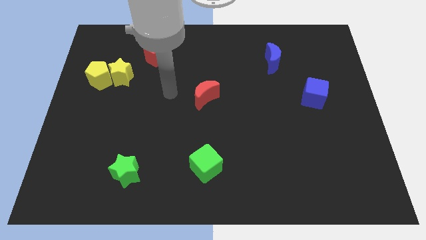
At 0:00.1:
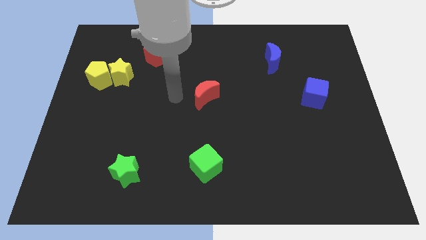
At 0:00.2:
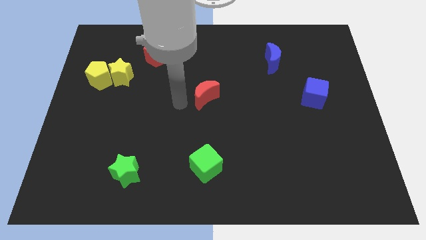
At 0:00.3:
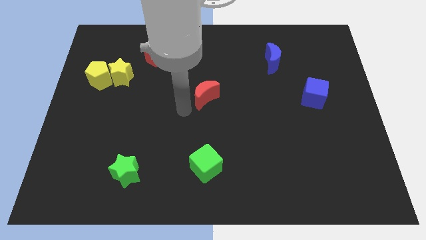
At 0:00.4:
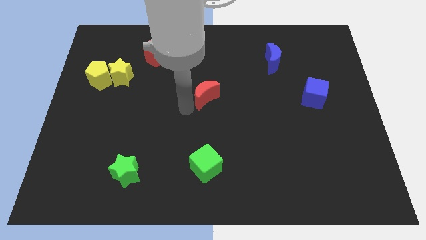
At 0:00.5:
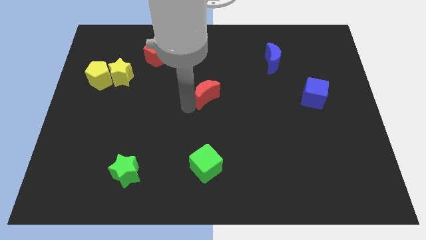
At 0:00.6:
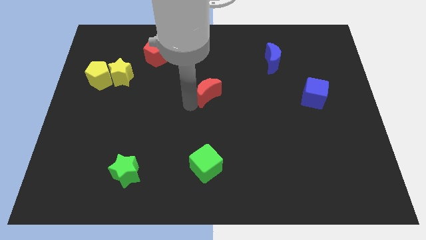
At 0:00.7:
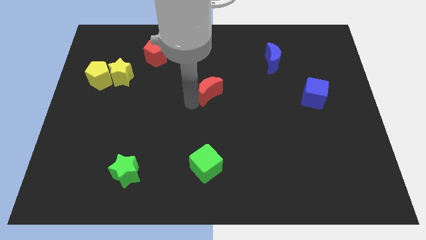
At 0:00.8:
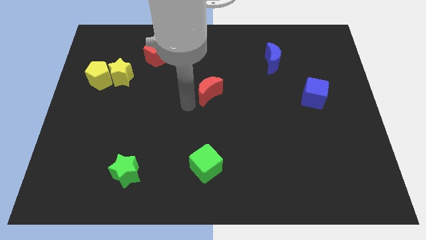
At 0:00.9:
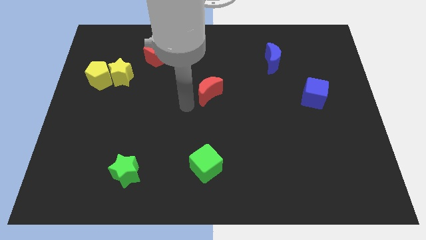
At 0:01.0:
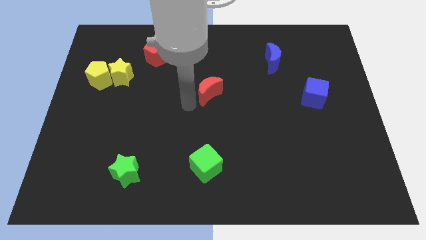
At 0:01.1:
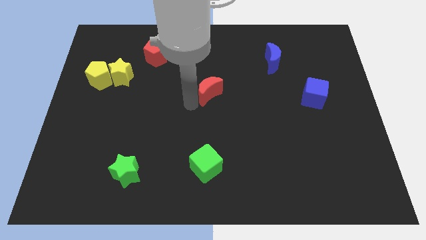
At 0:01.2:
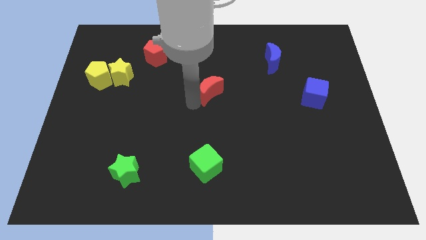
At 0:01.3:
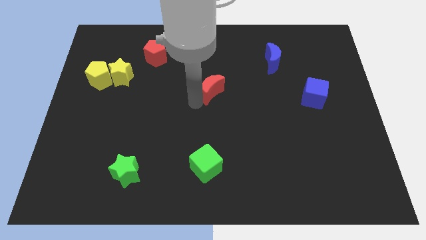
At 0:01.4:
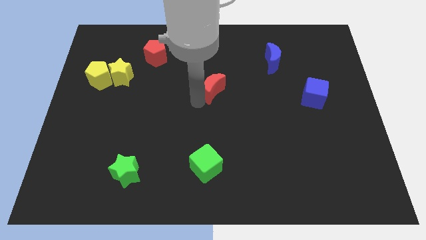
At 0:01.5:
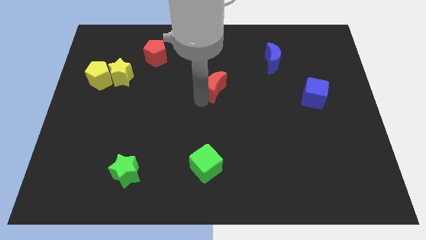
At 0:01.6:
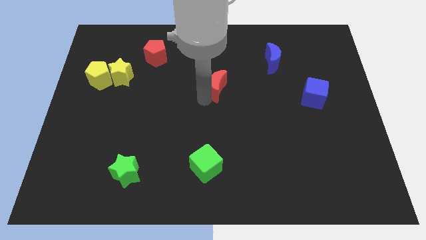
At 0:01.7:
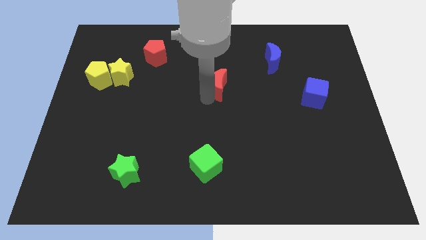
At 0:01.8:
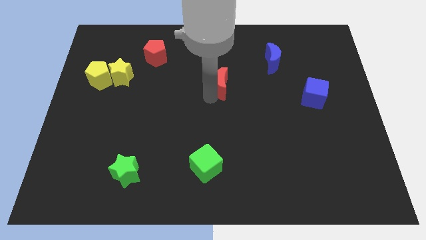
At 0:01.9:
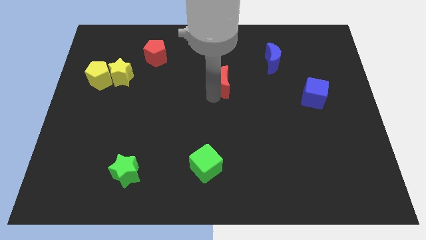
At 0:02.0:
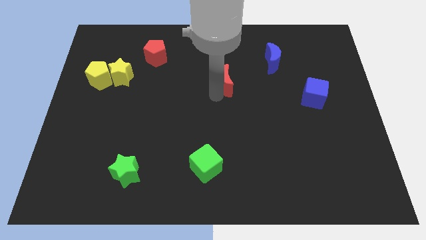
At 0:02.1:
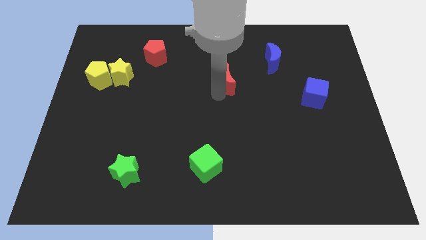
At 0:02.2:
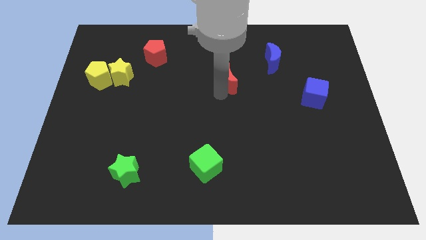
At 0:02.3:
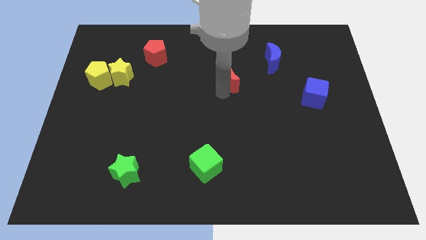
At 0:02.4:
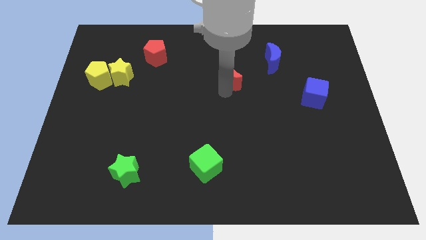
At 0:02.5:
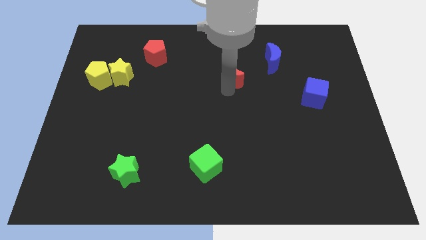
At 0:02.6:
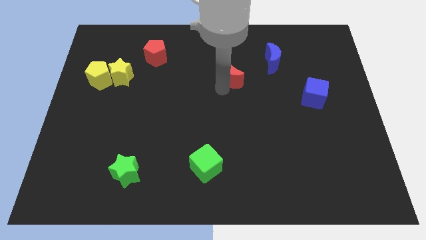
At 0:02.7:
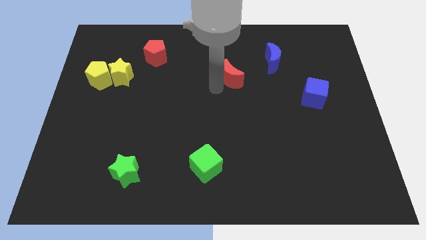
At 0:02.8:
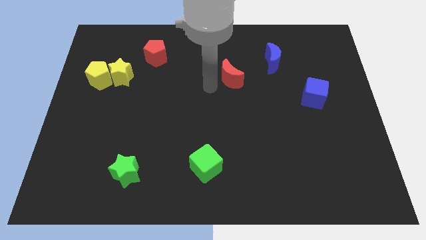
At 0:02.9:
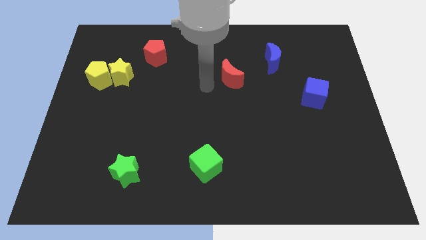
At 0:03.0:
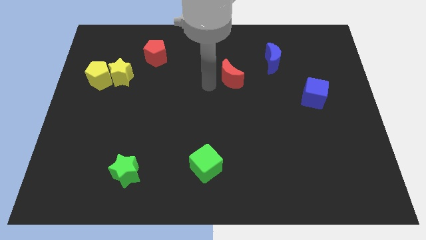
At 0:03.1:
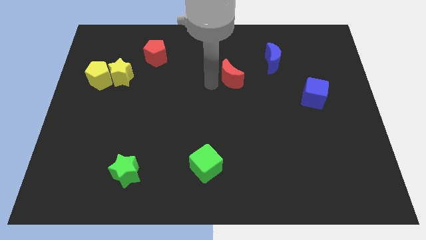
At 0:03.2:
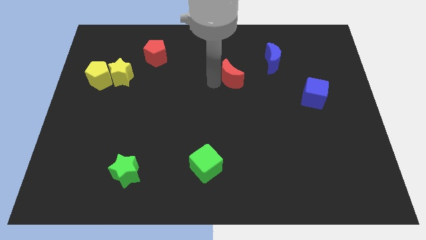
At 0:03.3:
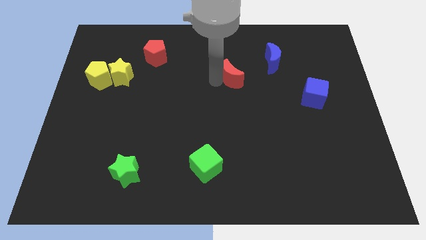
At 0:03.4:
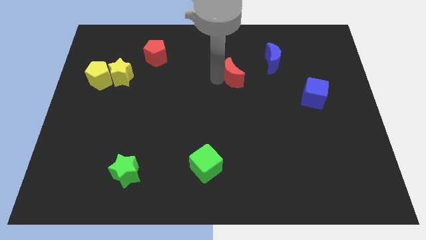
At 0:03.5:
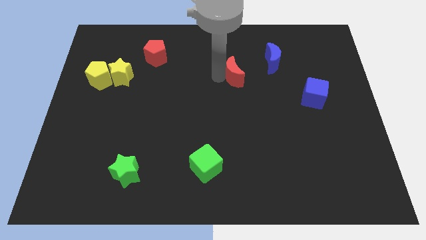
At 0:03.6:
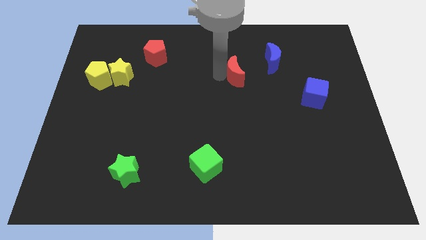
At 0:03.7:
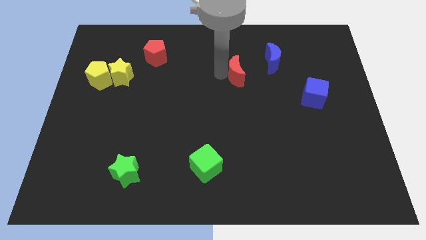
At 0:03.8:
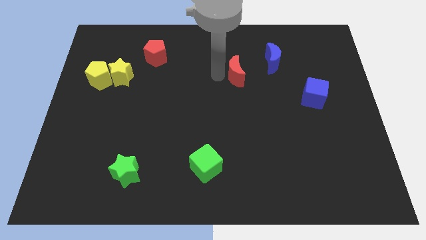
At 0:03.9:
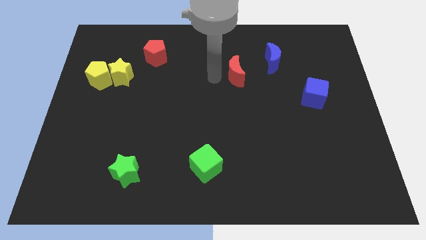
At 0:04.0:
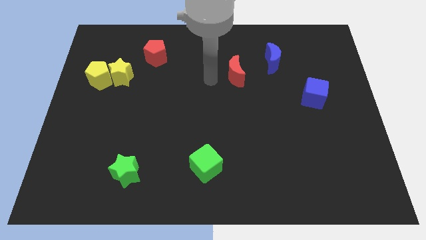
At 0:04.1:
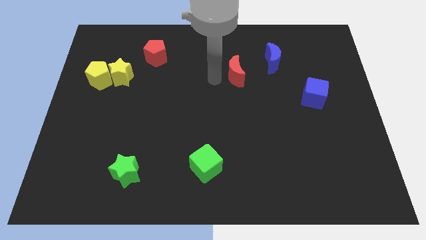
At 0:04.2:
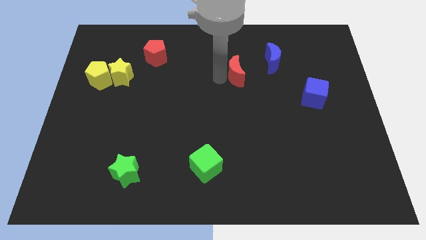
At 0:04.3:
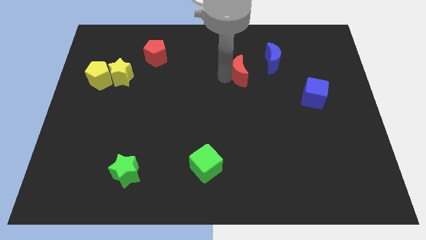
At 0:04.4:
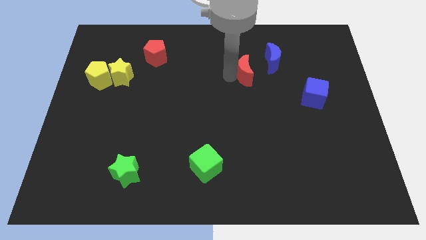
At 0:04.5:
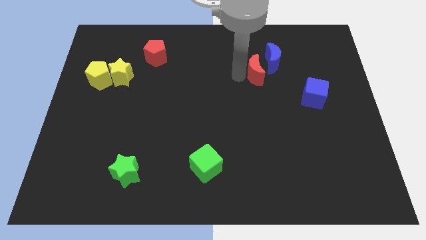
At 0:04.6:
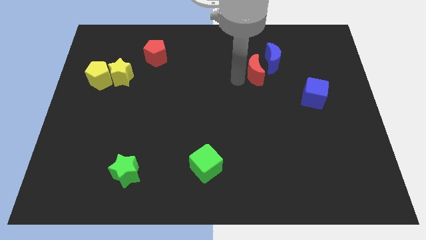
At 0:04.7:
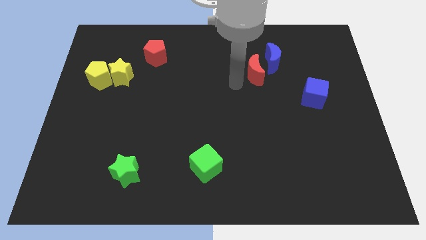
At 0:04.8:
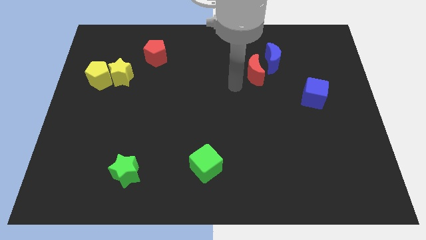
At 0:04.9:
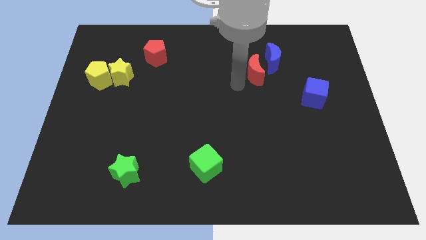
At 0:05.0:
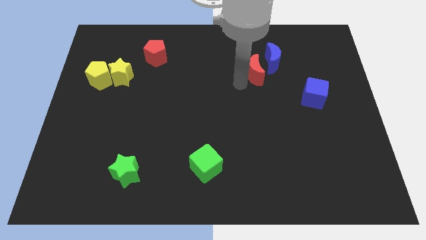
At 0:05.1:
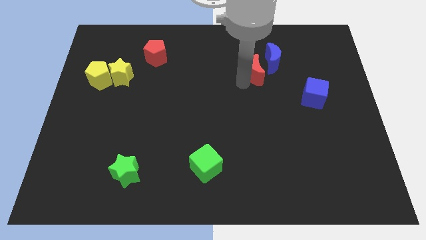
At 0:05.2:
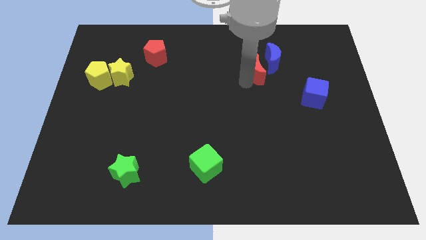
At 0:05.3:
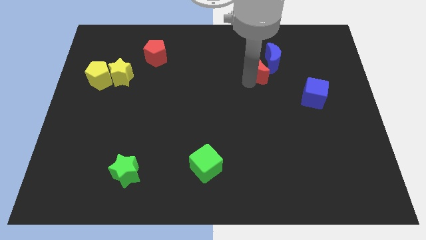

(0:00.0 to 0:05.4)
push the red moon towards the blue moon

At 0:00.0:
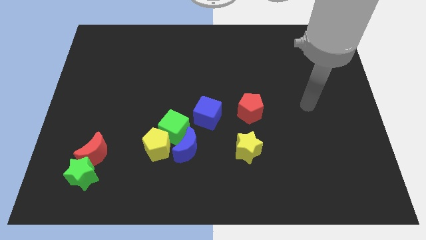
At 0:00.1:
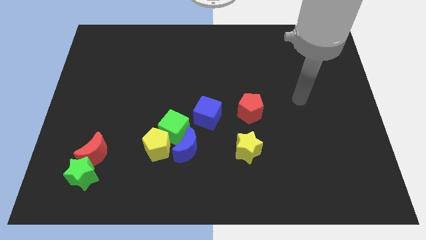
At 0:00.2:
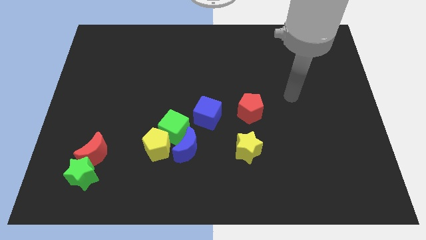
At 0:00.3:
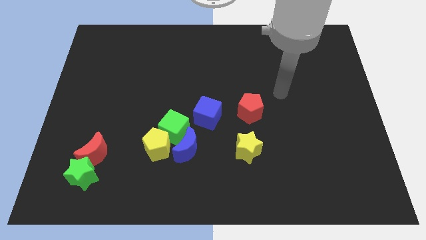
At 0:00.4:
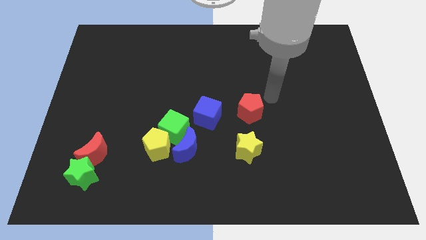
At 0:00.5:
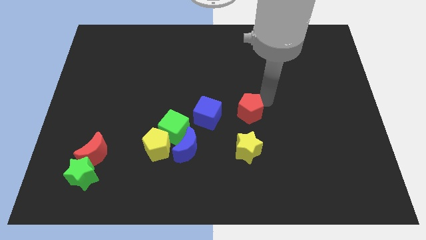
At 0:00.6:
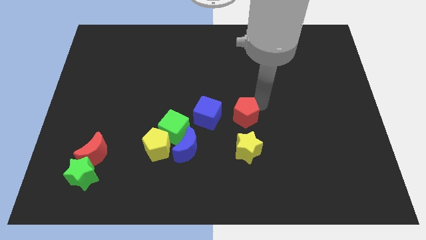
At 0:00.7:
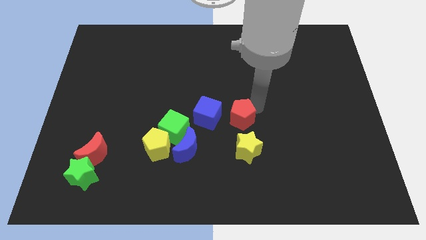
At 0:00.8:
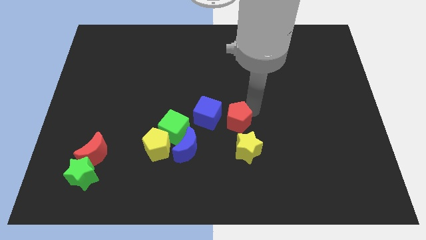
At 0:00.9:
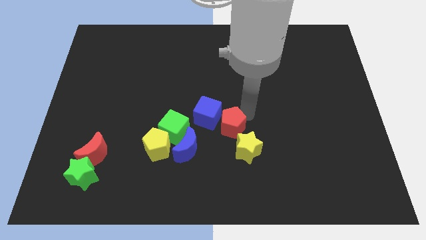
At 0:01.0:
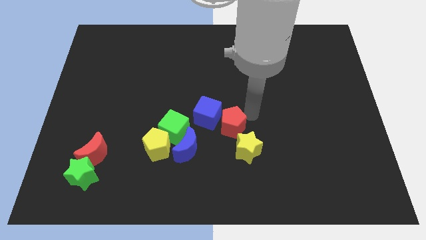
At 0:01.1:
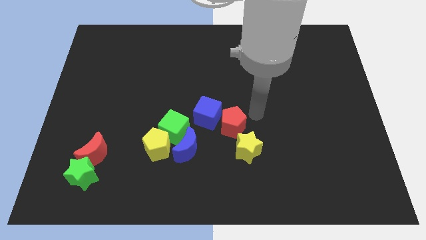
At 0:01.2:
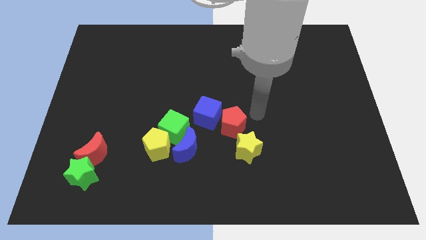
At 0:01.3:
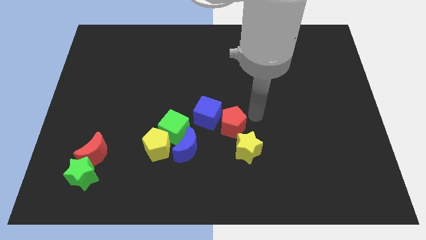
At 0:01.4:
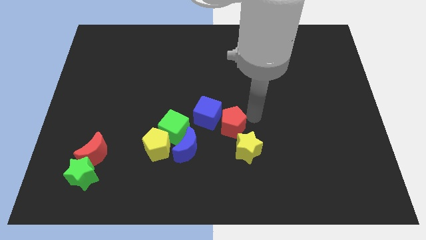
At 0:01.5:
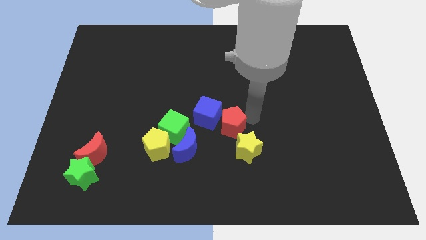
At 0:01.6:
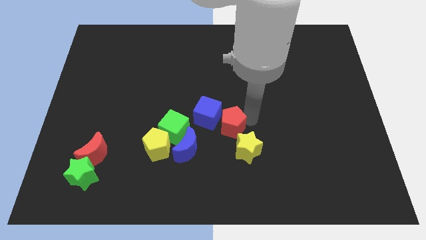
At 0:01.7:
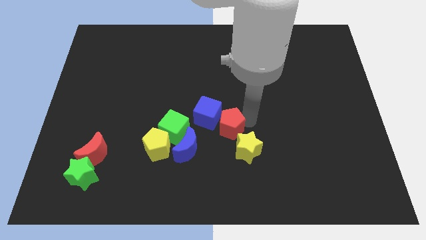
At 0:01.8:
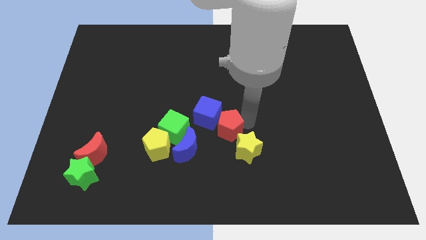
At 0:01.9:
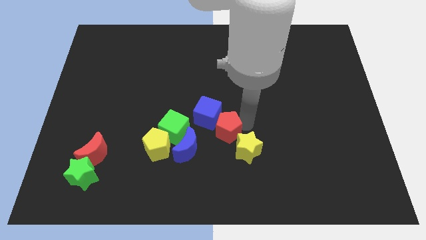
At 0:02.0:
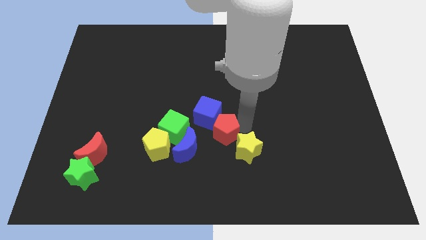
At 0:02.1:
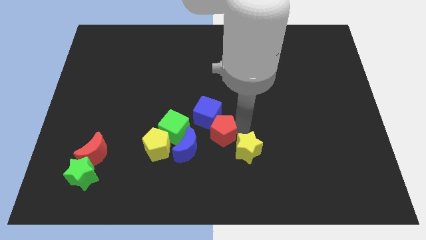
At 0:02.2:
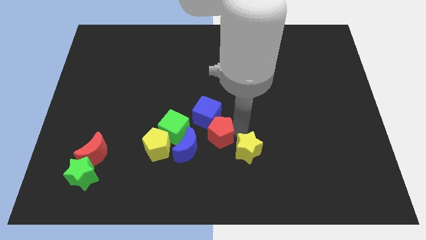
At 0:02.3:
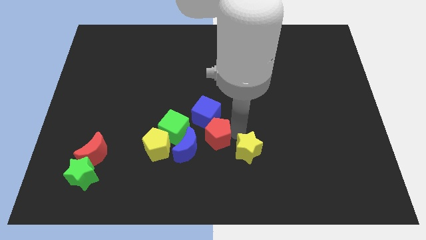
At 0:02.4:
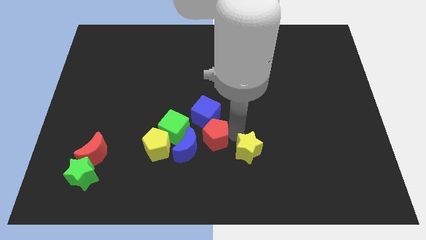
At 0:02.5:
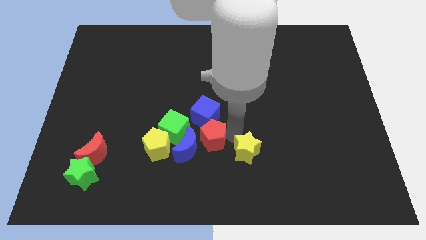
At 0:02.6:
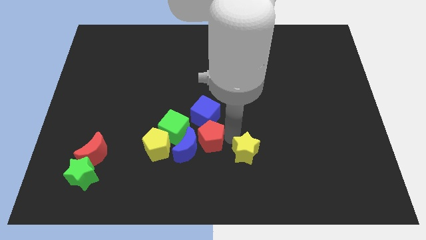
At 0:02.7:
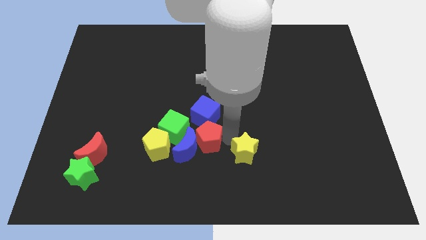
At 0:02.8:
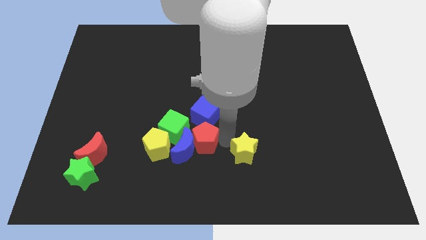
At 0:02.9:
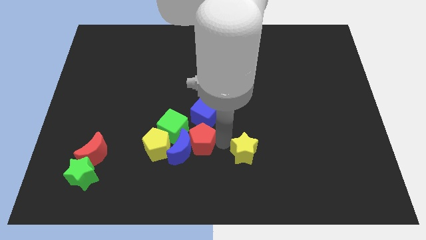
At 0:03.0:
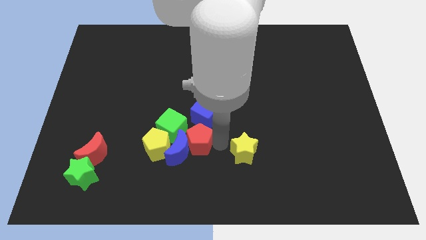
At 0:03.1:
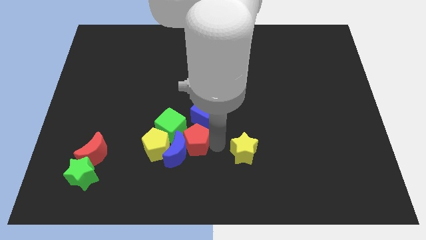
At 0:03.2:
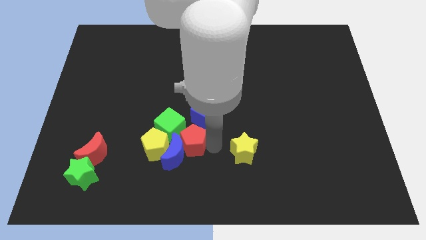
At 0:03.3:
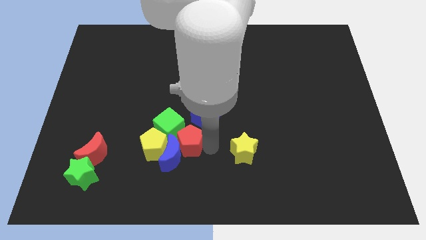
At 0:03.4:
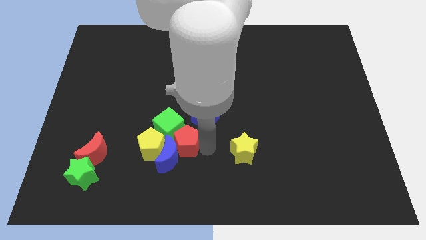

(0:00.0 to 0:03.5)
move the red pentagon towards the green cube
